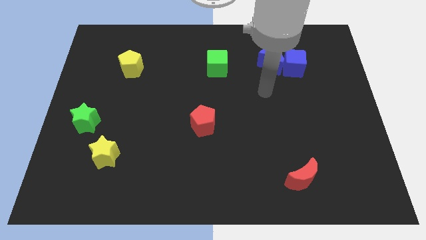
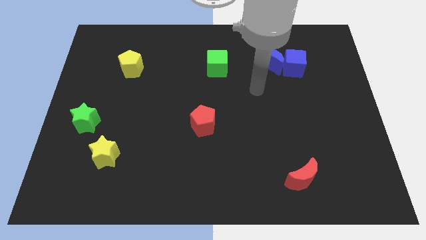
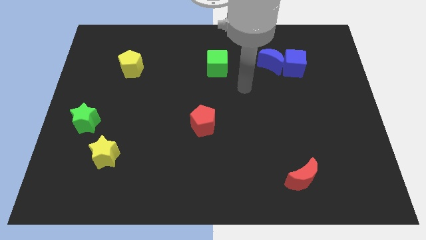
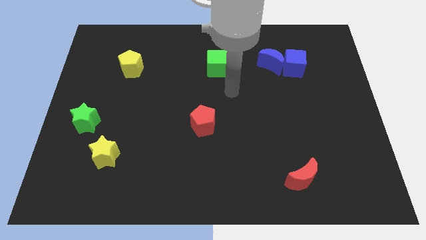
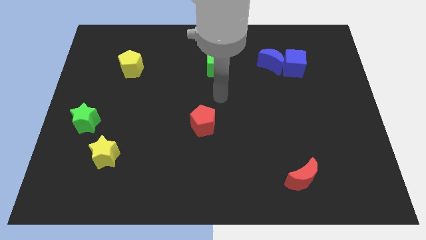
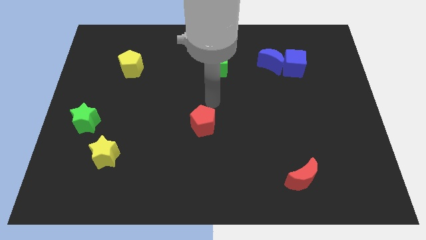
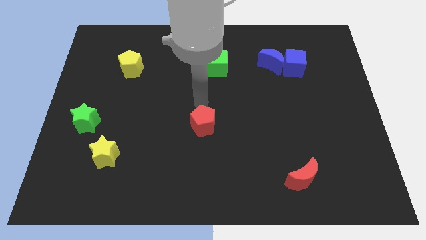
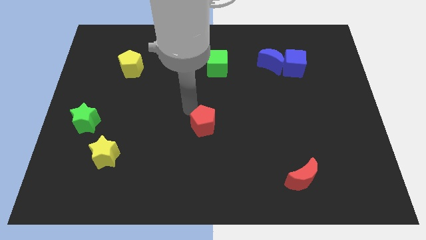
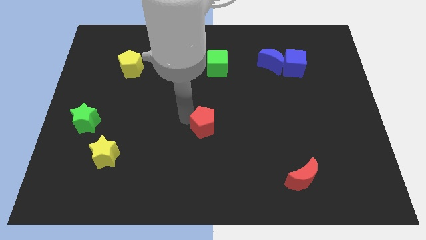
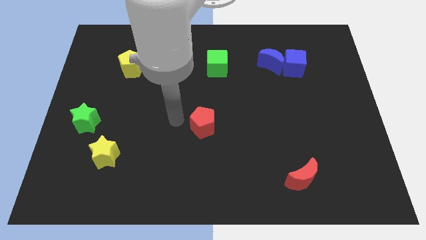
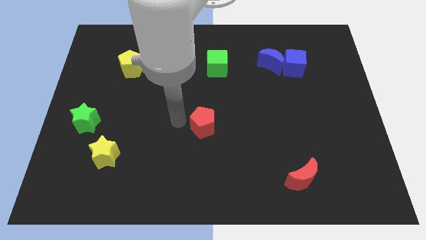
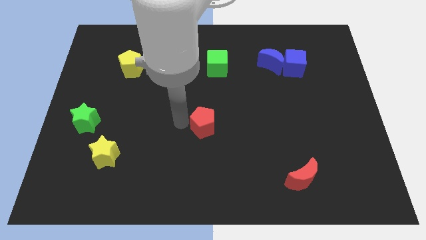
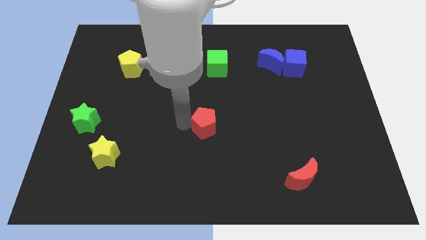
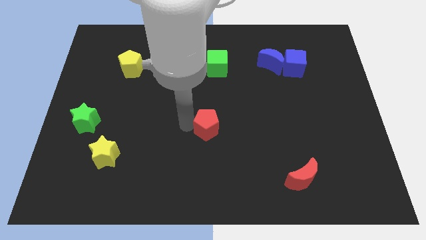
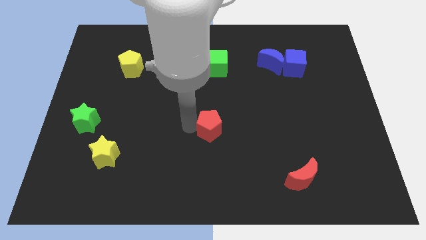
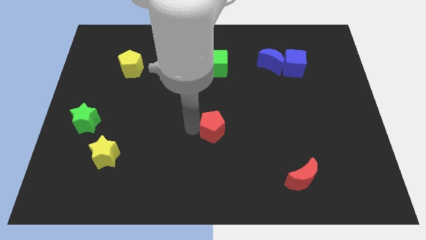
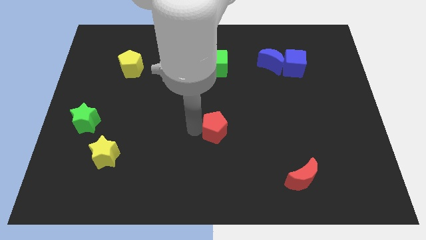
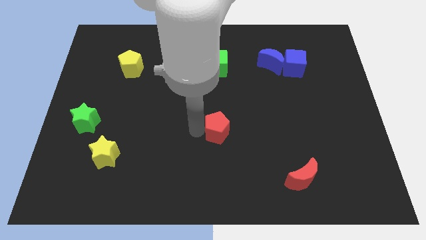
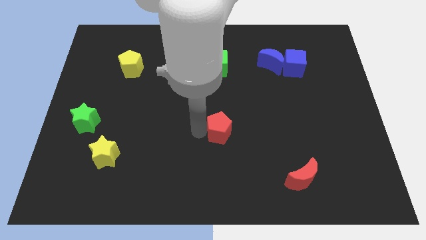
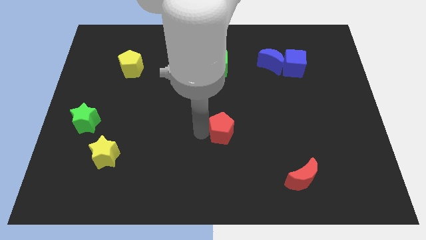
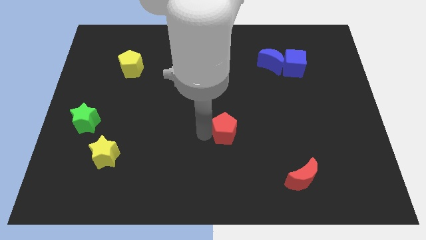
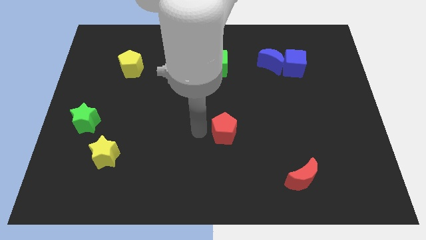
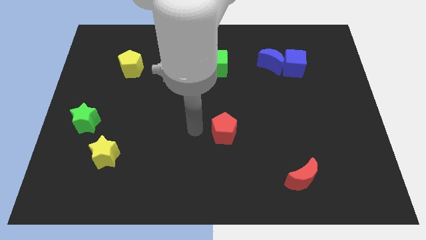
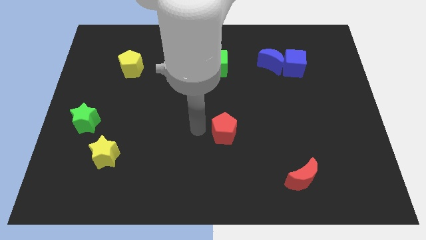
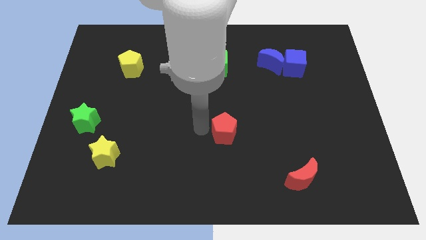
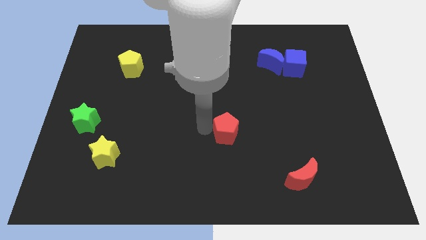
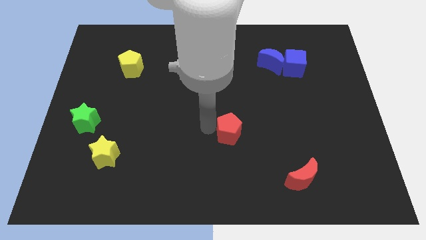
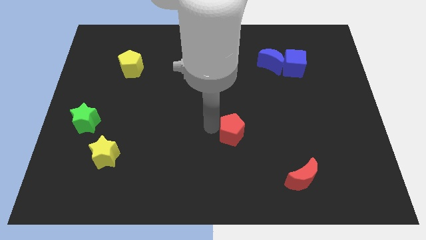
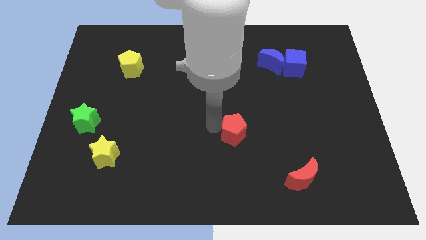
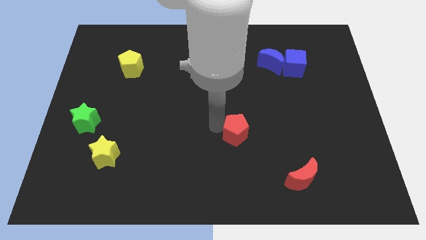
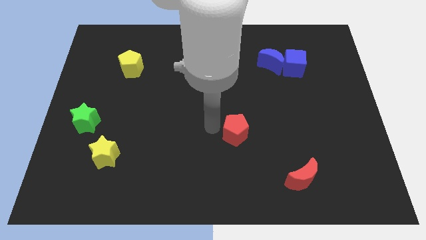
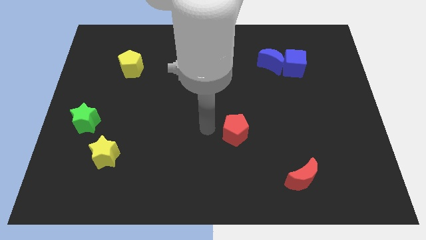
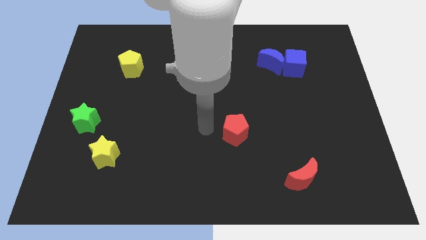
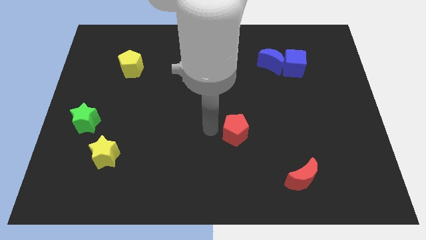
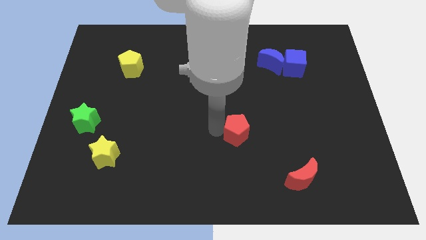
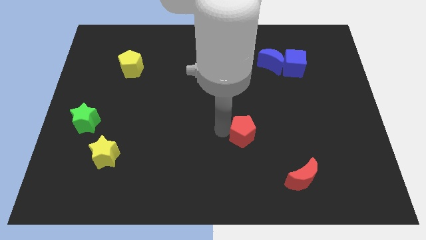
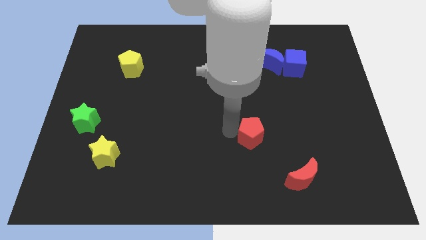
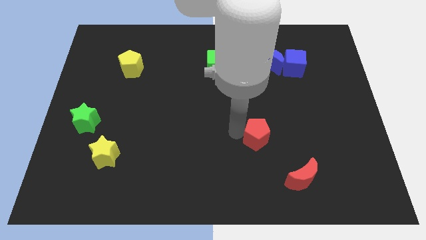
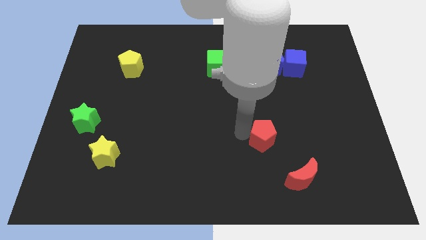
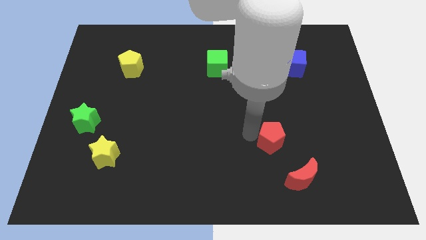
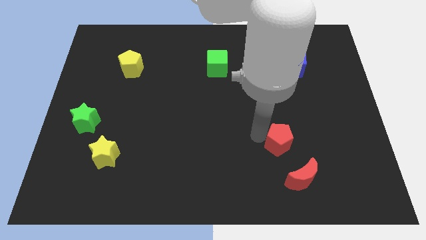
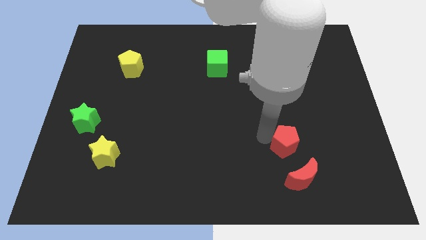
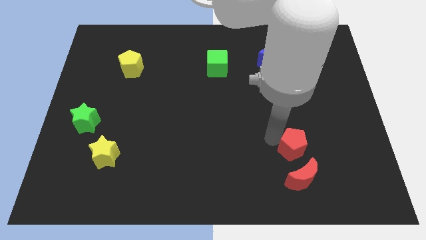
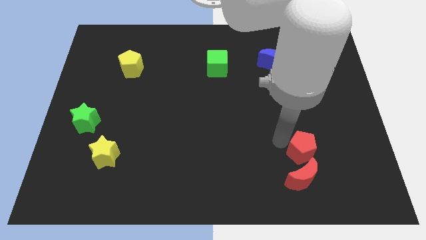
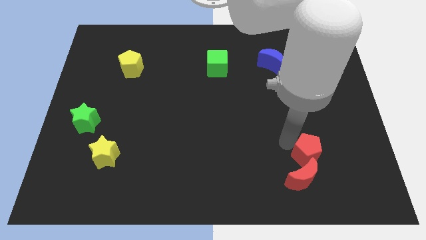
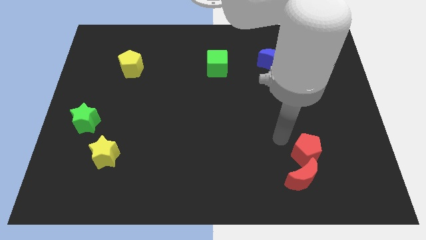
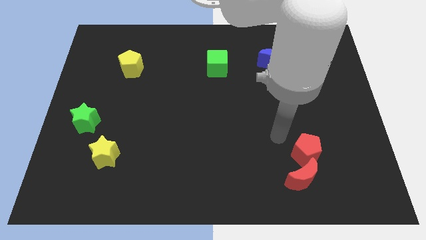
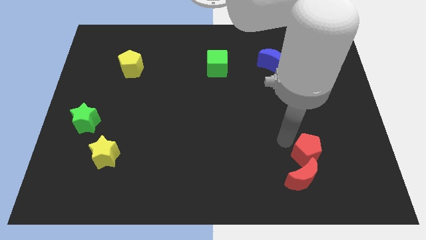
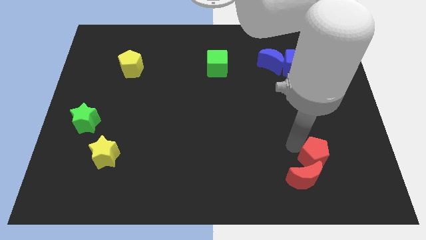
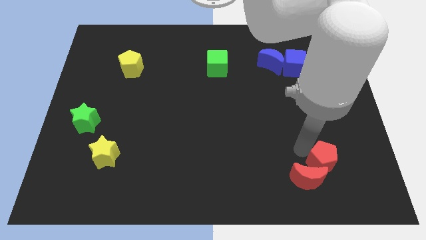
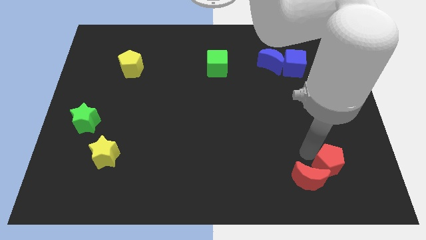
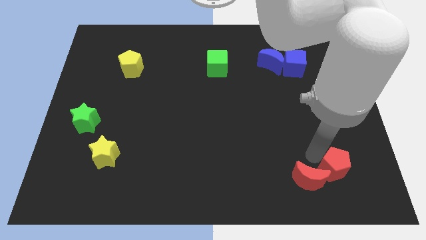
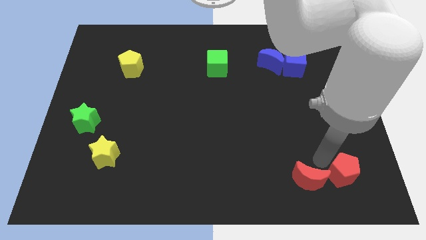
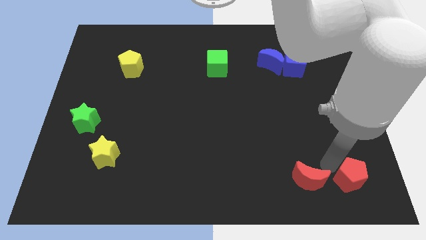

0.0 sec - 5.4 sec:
put the red pentagon to the bottom right of the board

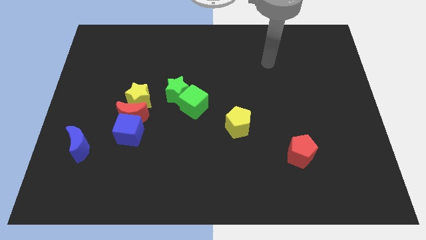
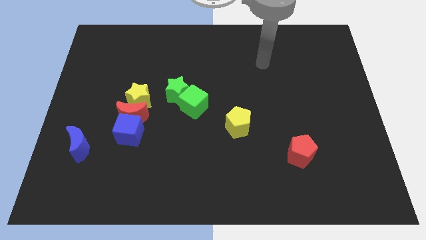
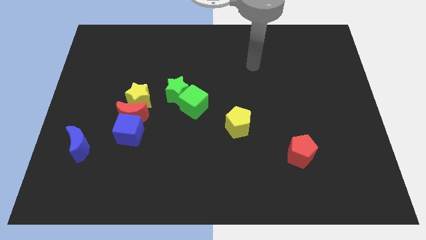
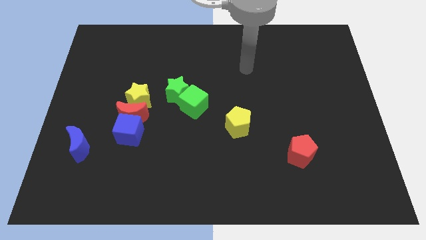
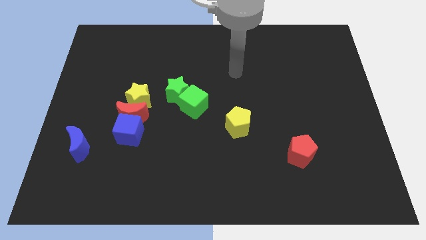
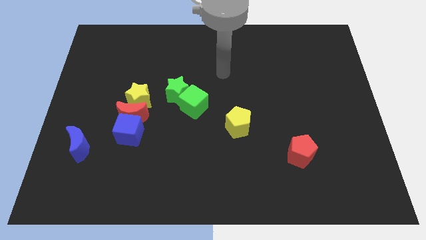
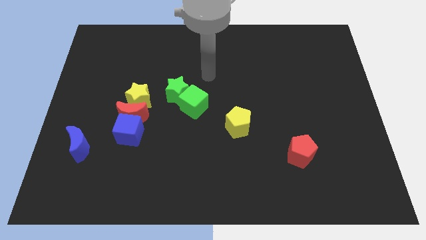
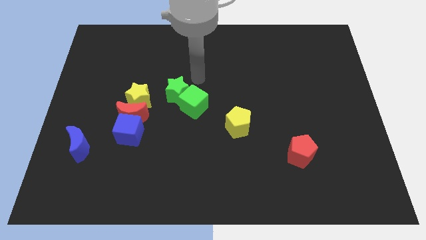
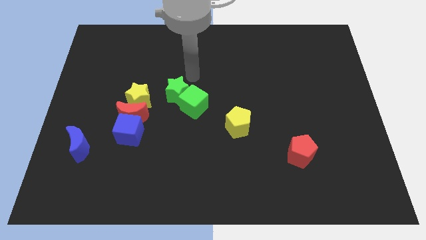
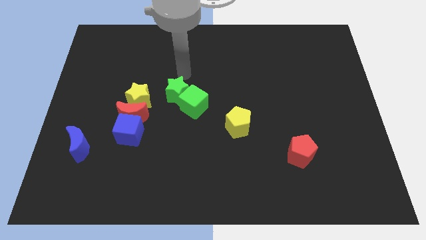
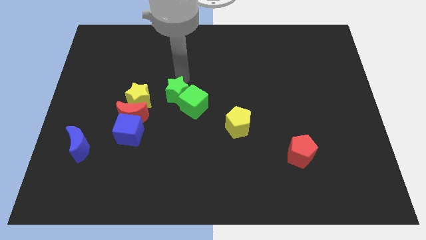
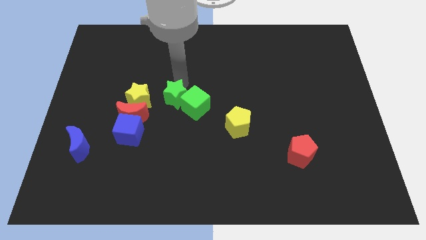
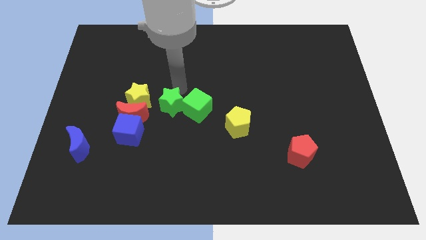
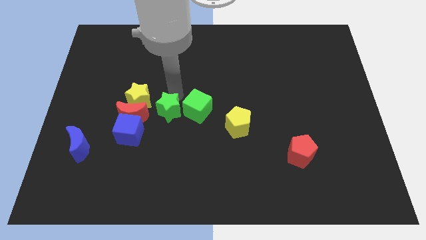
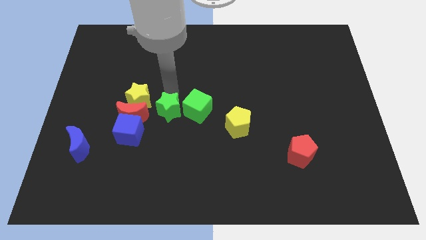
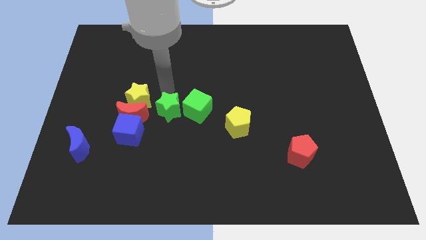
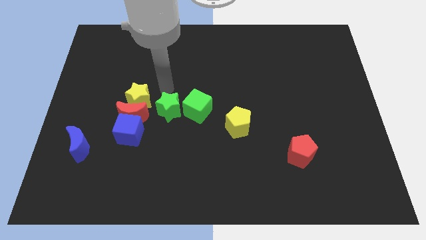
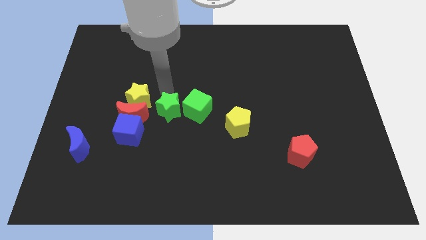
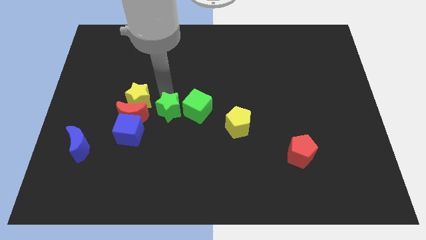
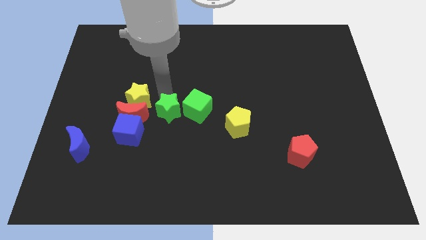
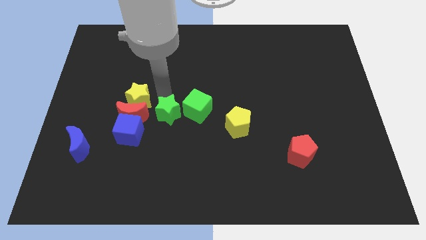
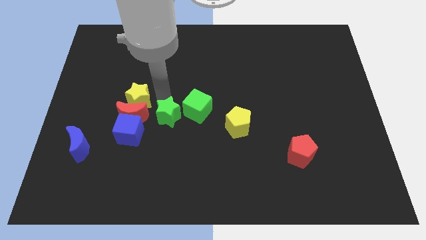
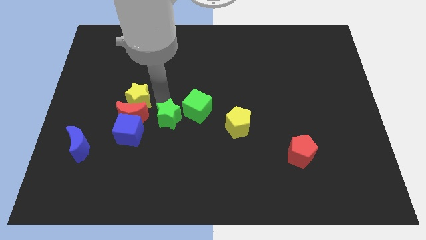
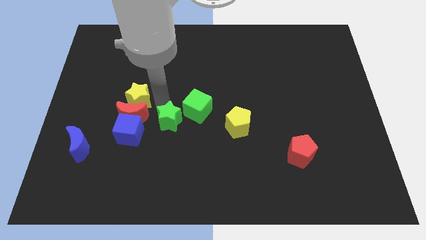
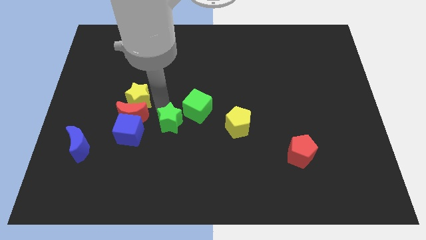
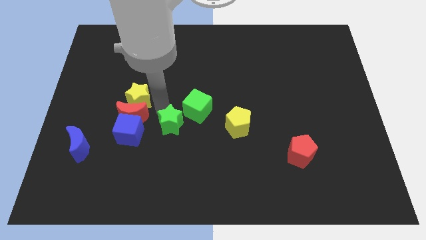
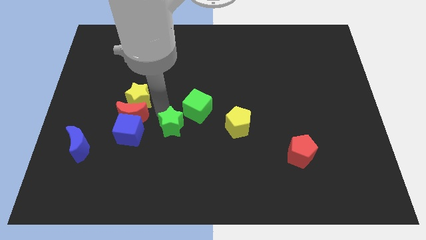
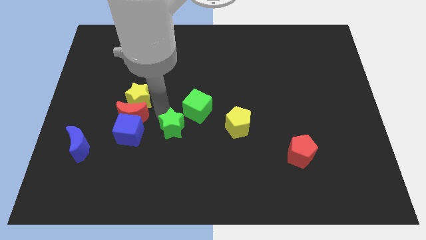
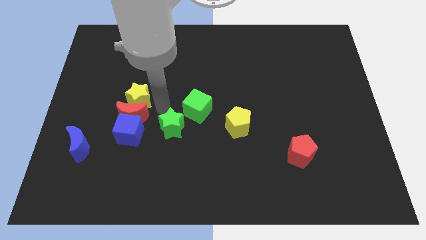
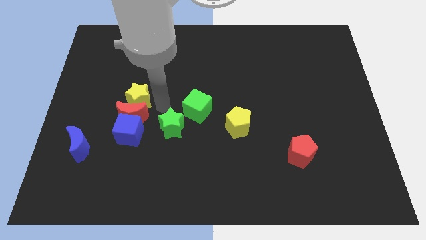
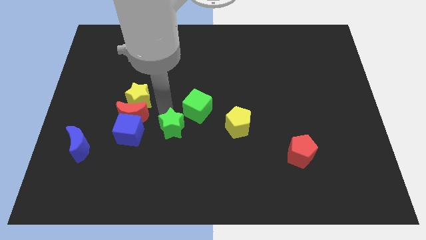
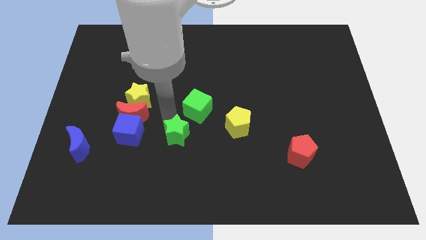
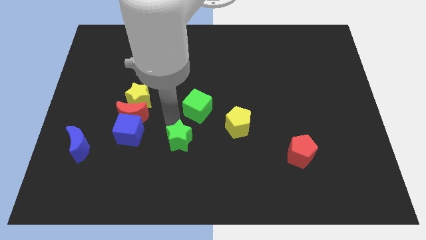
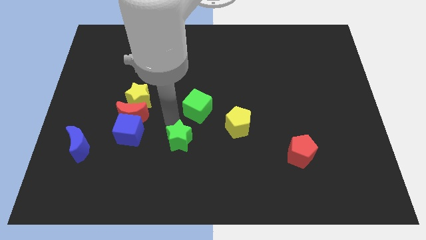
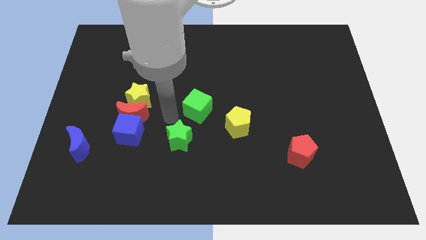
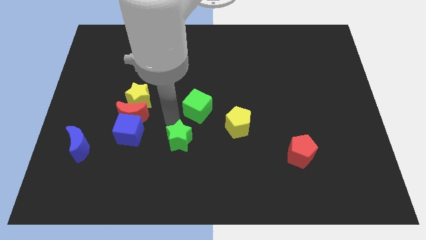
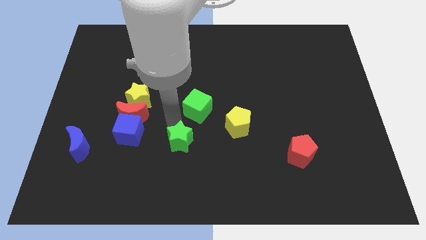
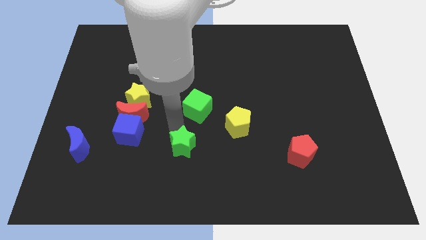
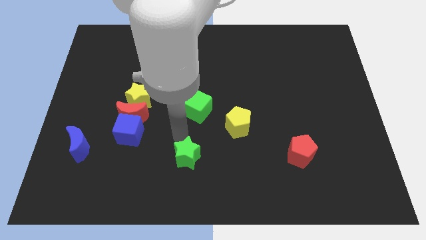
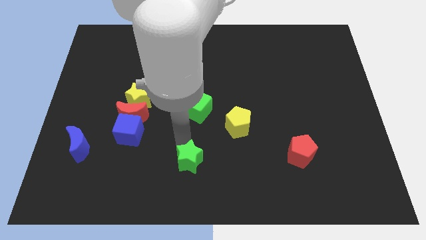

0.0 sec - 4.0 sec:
push the green star to the bottom
